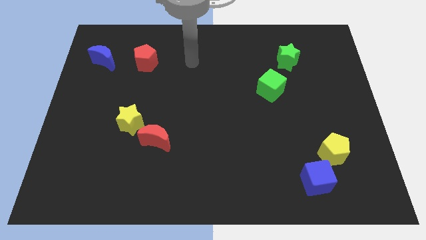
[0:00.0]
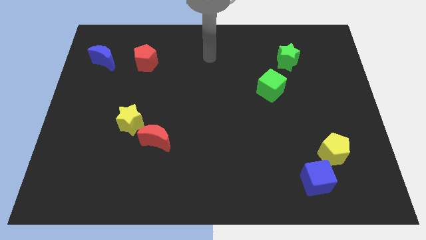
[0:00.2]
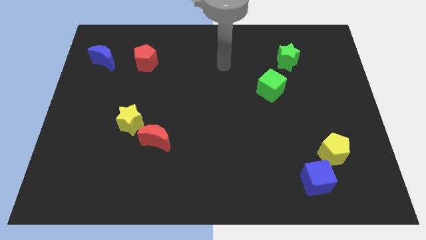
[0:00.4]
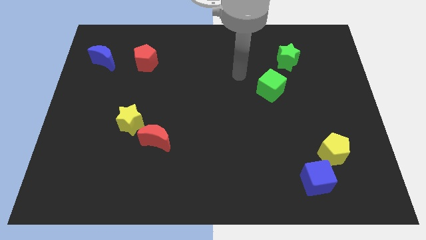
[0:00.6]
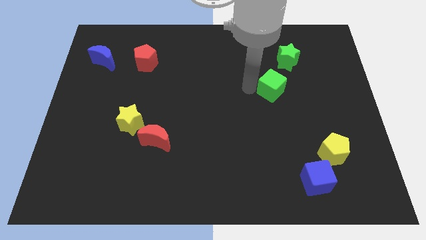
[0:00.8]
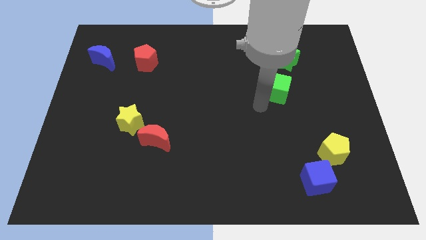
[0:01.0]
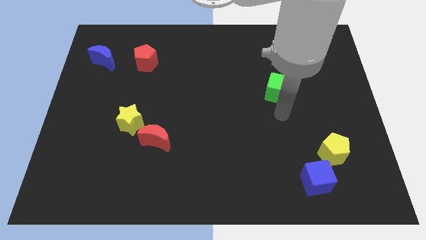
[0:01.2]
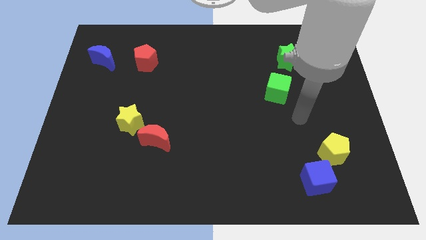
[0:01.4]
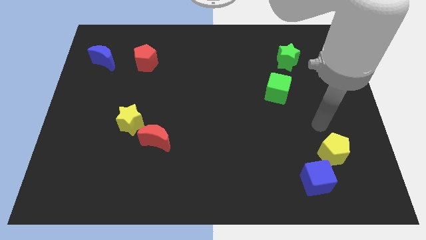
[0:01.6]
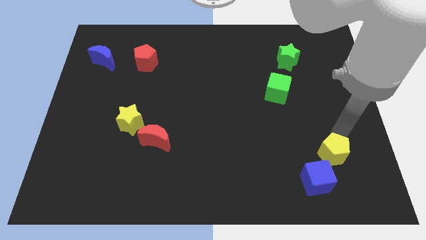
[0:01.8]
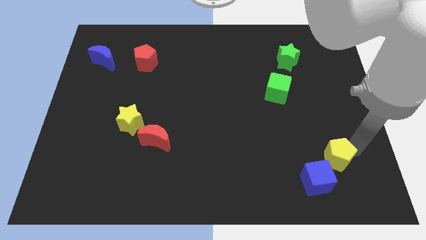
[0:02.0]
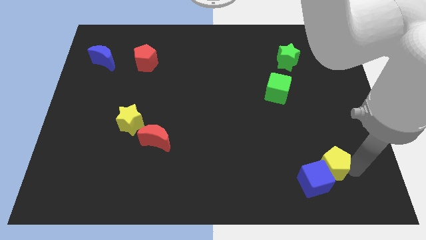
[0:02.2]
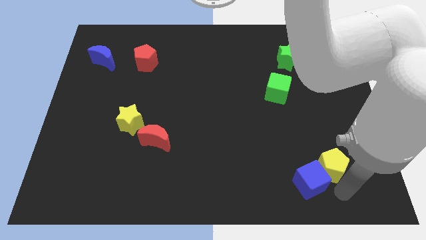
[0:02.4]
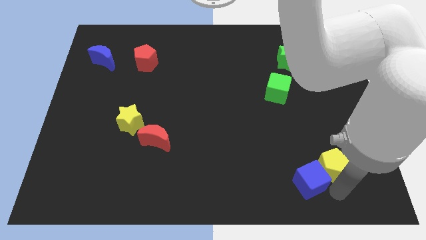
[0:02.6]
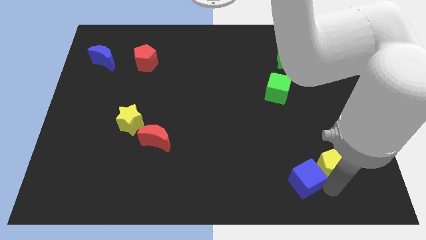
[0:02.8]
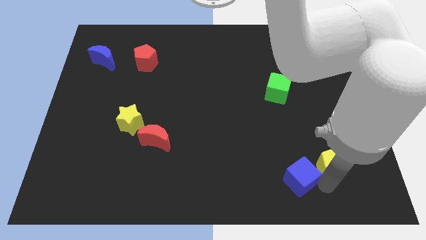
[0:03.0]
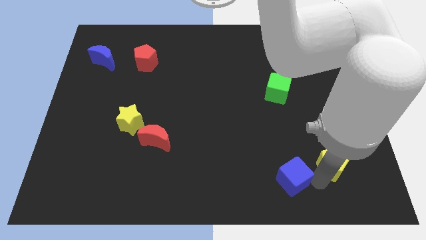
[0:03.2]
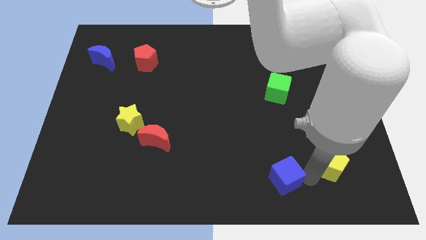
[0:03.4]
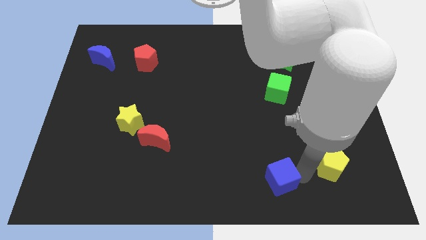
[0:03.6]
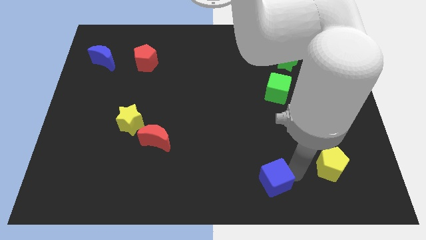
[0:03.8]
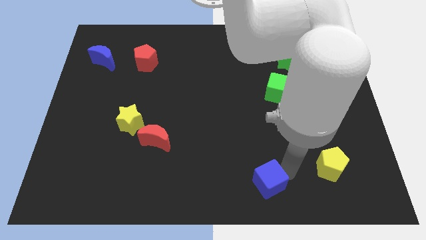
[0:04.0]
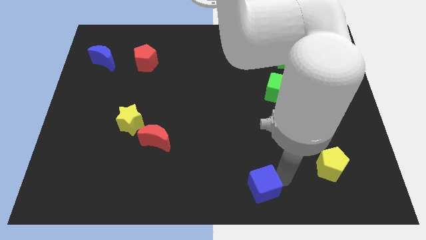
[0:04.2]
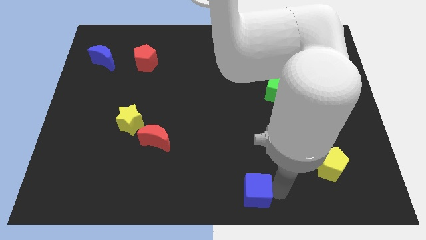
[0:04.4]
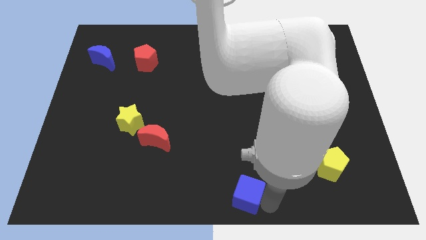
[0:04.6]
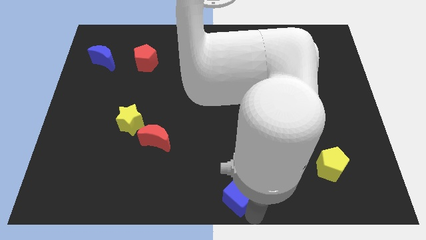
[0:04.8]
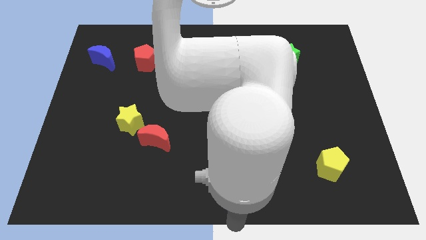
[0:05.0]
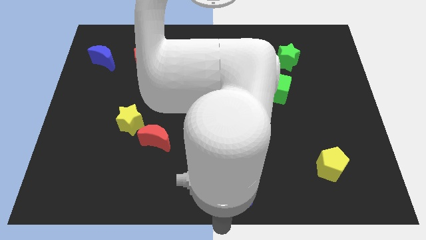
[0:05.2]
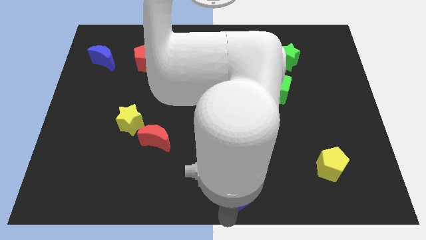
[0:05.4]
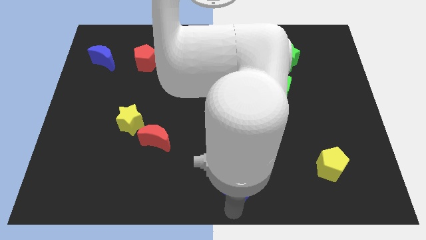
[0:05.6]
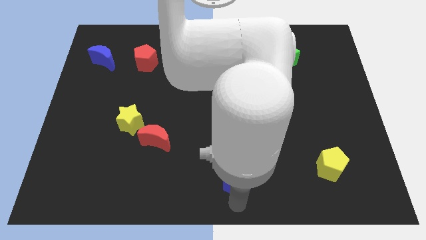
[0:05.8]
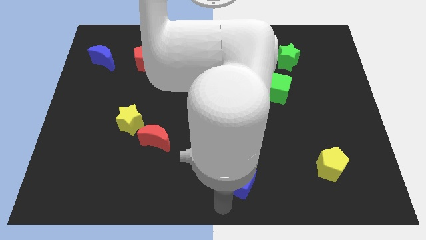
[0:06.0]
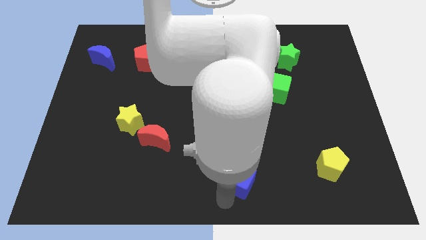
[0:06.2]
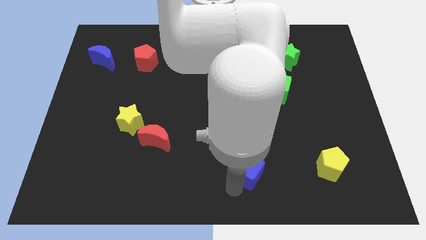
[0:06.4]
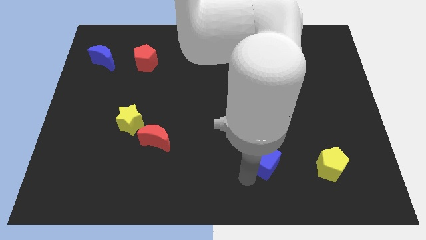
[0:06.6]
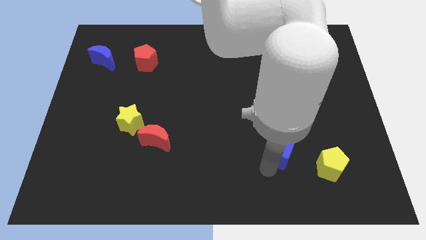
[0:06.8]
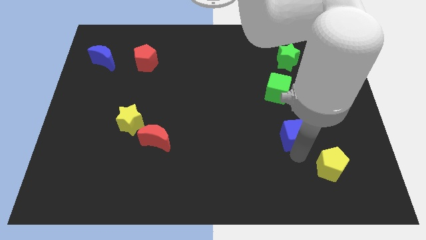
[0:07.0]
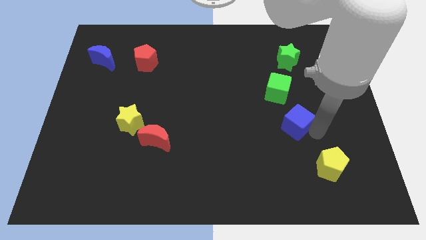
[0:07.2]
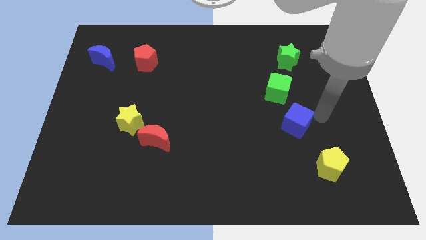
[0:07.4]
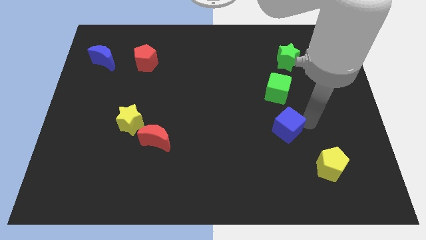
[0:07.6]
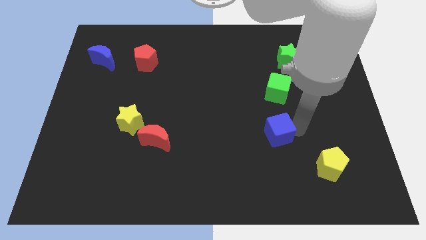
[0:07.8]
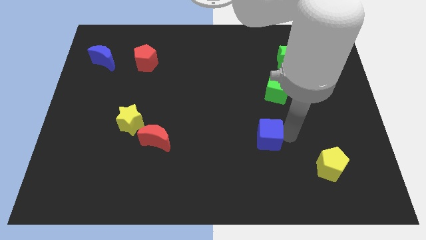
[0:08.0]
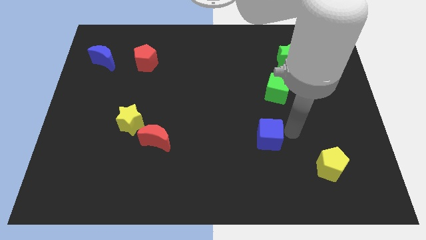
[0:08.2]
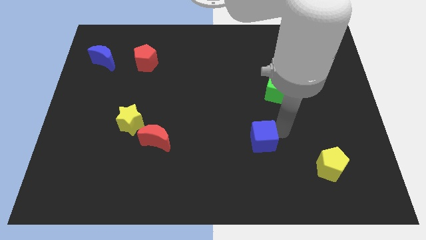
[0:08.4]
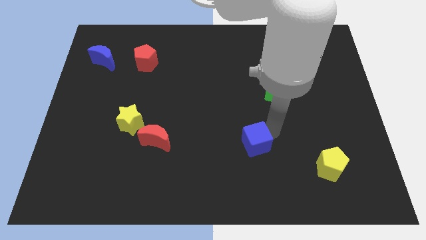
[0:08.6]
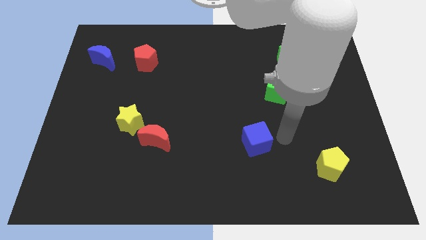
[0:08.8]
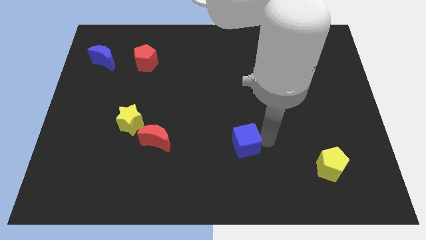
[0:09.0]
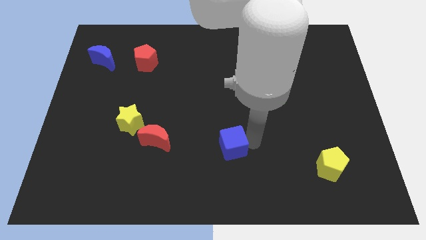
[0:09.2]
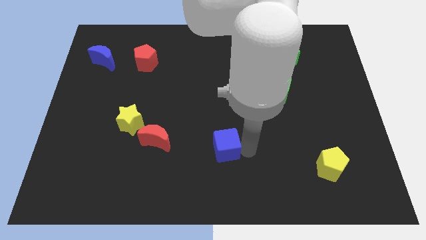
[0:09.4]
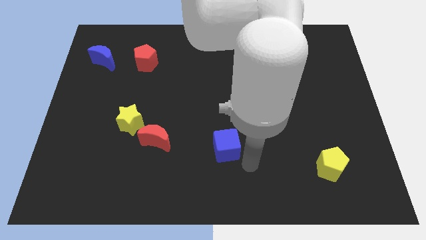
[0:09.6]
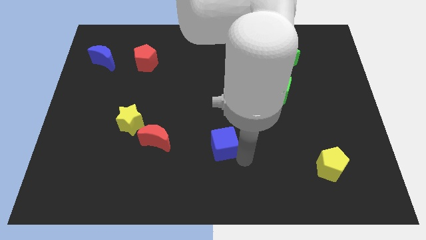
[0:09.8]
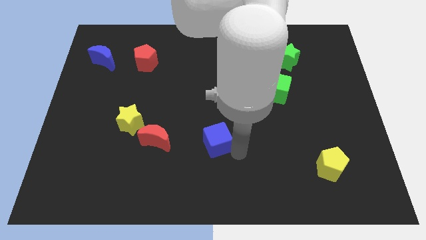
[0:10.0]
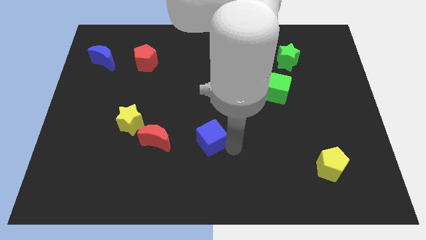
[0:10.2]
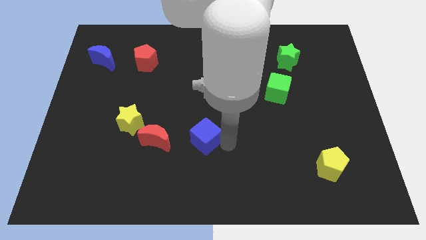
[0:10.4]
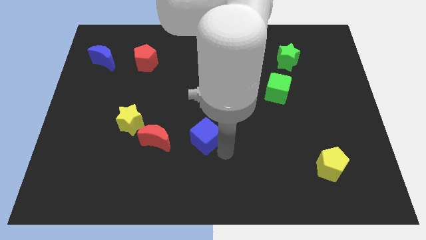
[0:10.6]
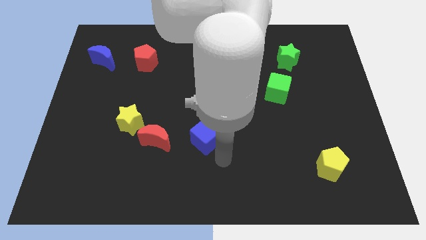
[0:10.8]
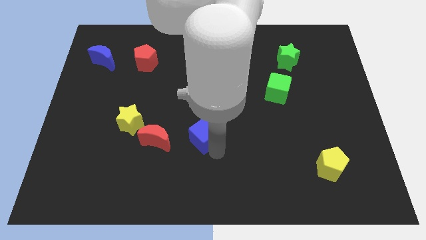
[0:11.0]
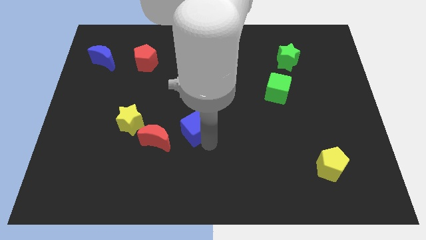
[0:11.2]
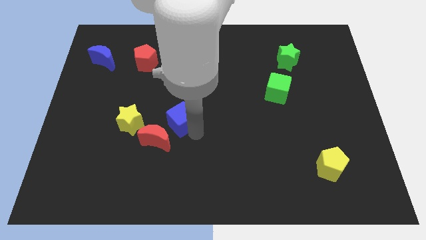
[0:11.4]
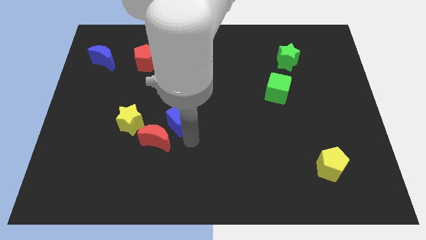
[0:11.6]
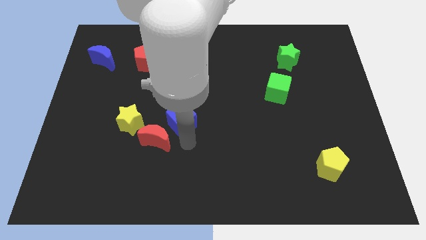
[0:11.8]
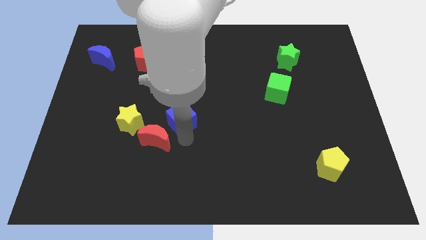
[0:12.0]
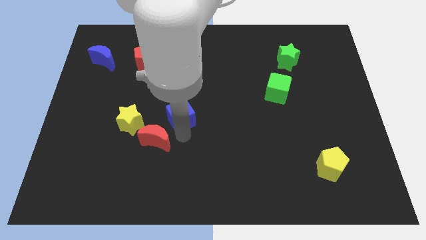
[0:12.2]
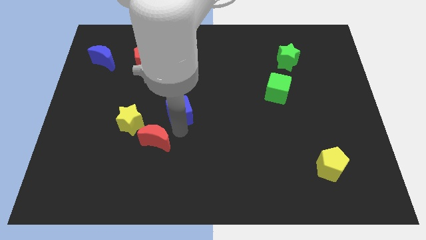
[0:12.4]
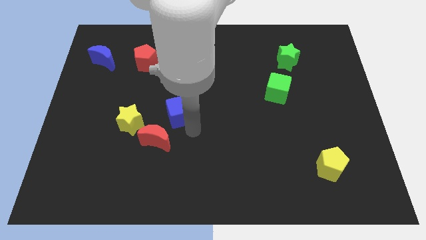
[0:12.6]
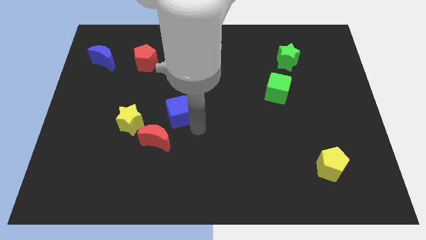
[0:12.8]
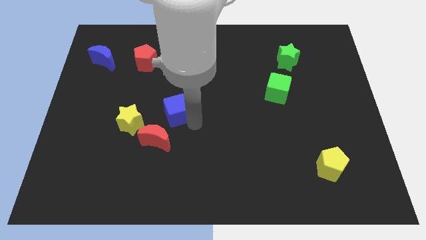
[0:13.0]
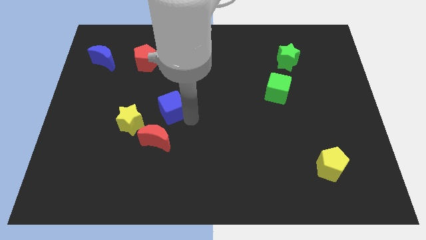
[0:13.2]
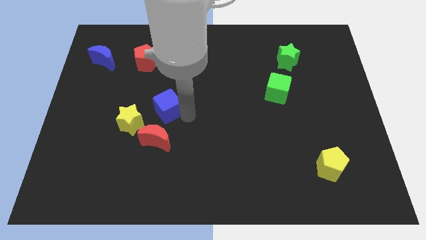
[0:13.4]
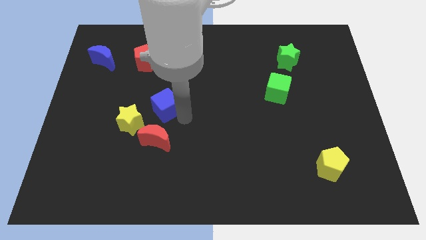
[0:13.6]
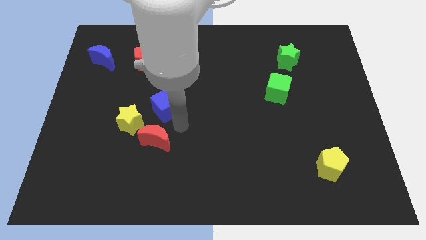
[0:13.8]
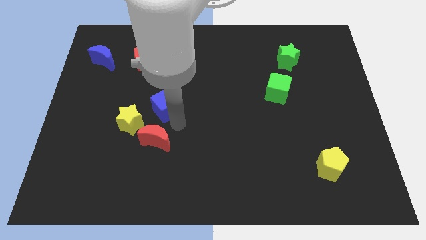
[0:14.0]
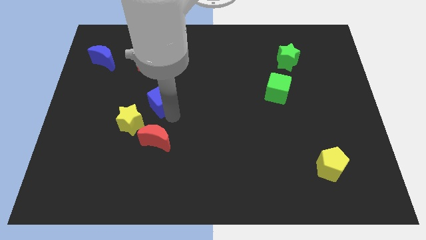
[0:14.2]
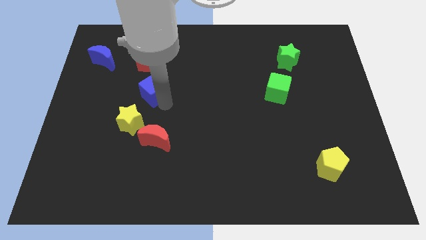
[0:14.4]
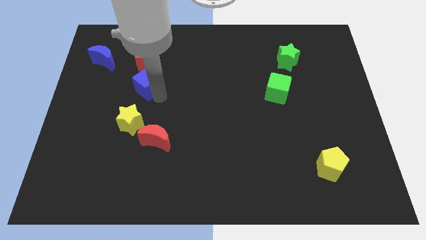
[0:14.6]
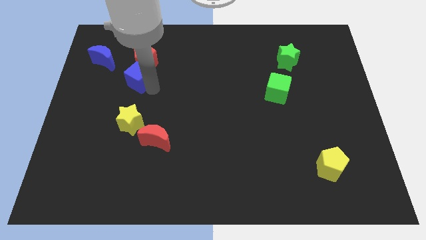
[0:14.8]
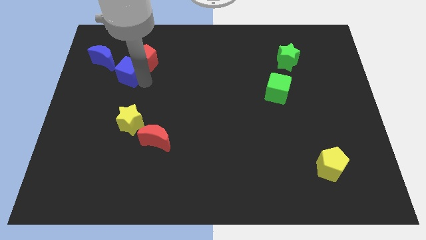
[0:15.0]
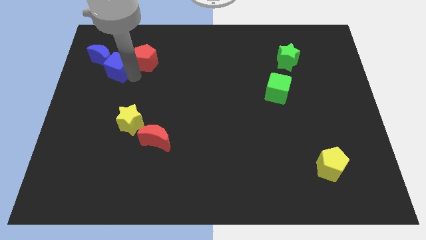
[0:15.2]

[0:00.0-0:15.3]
put the blue cube close to the blue moon
